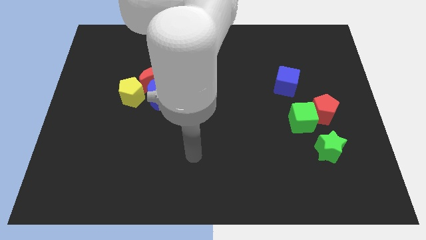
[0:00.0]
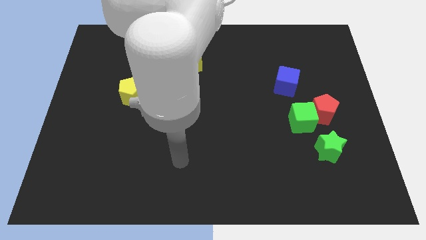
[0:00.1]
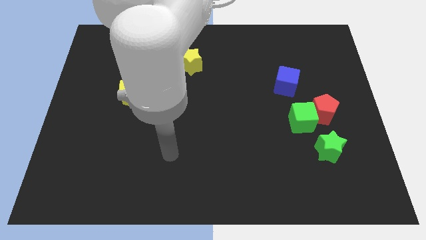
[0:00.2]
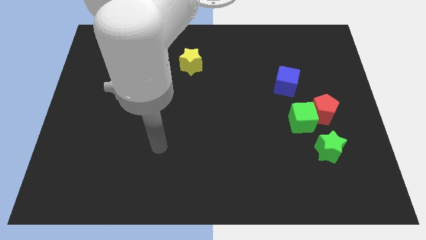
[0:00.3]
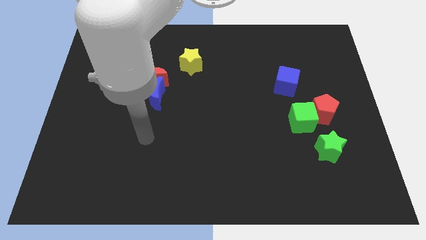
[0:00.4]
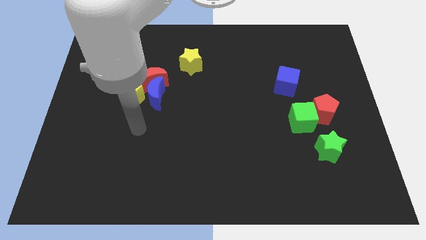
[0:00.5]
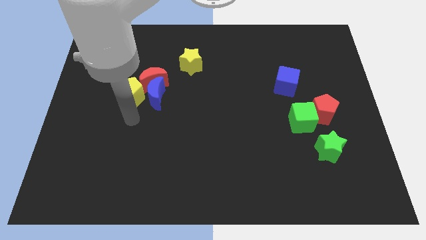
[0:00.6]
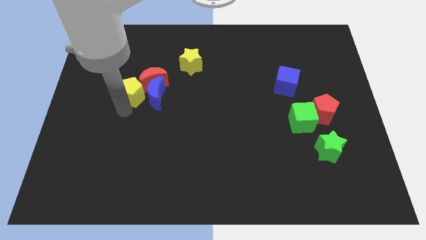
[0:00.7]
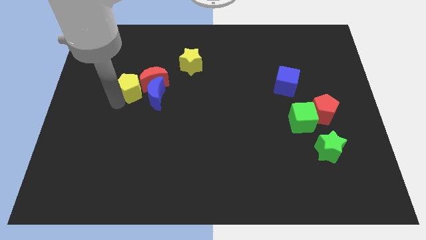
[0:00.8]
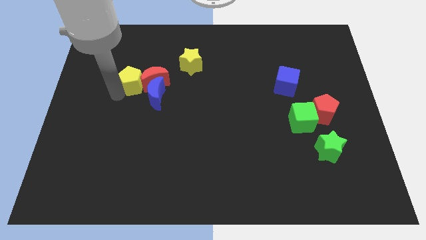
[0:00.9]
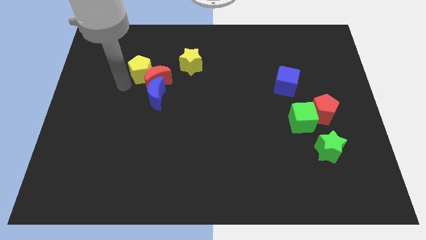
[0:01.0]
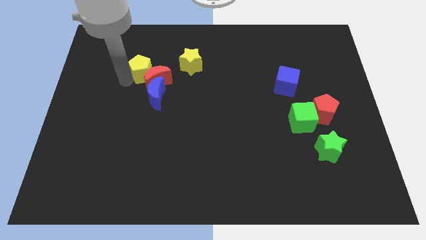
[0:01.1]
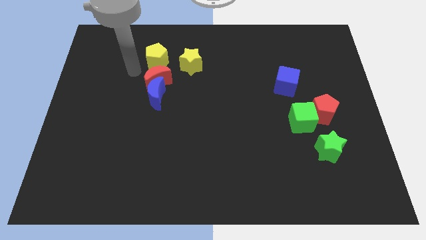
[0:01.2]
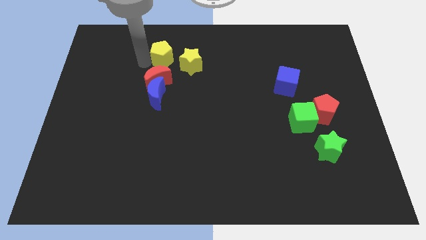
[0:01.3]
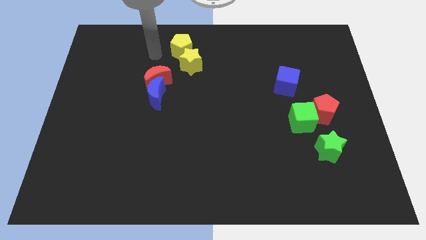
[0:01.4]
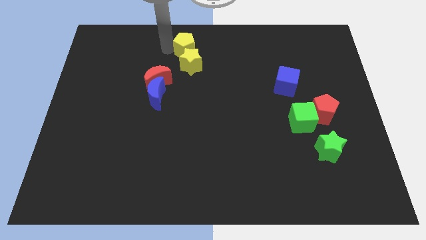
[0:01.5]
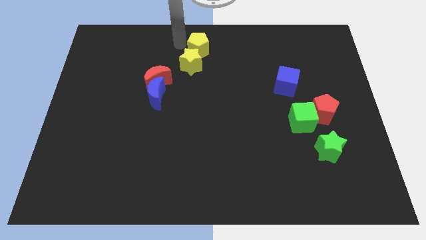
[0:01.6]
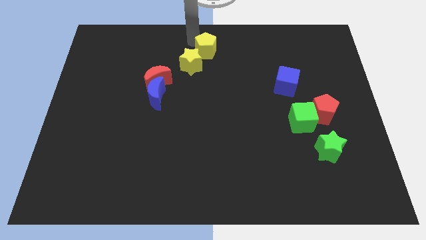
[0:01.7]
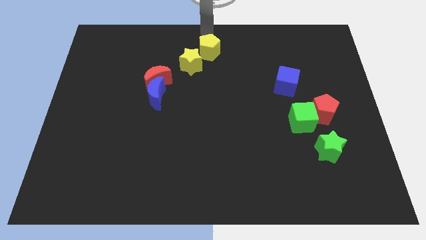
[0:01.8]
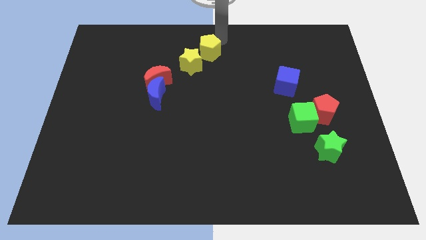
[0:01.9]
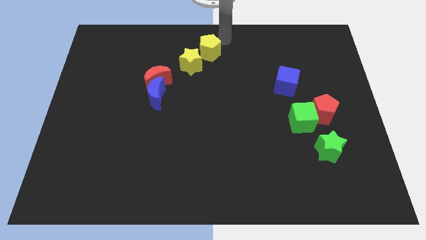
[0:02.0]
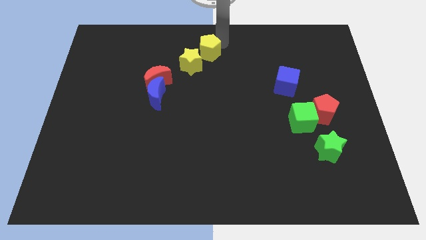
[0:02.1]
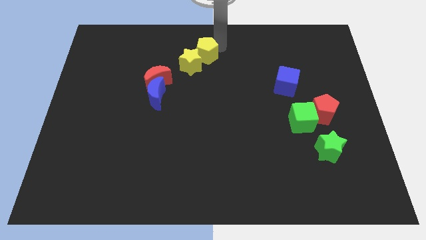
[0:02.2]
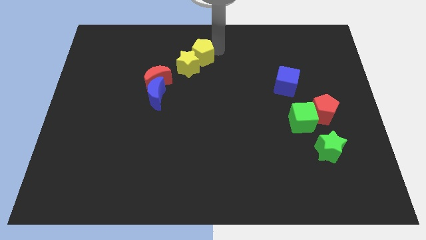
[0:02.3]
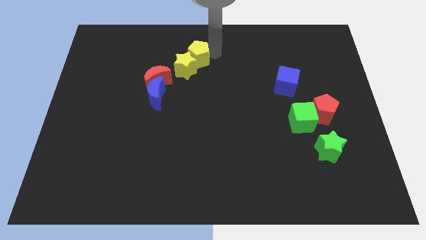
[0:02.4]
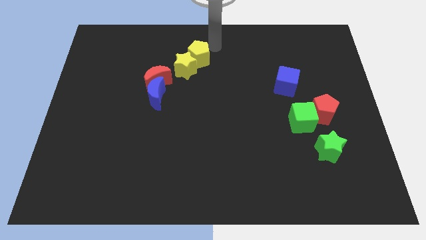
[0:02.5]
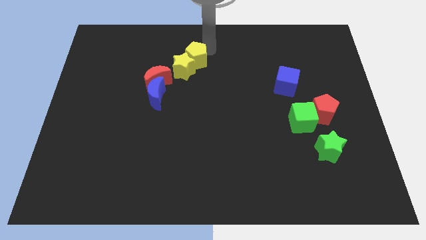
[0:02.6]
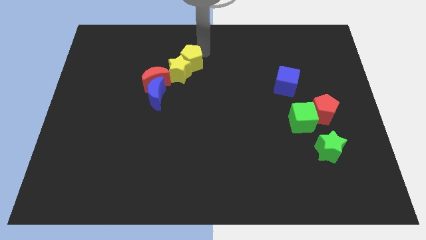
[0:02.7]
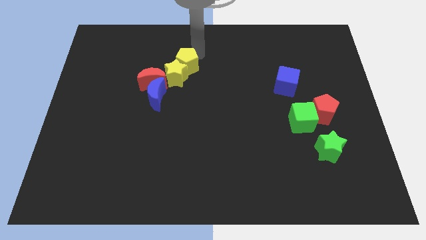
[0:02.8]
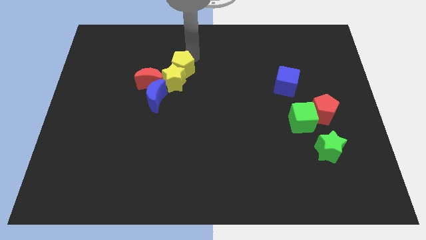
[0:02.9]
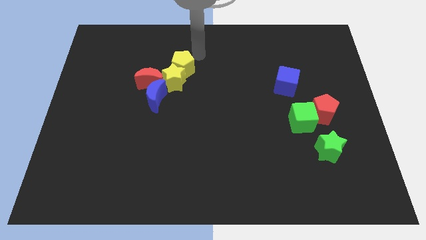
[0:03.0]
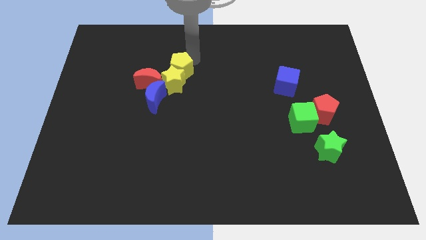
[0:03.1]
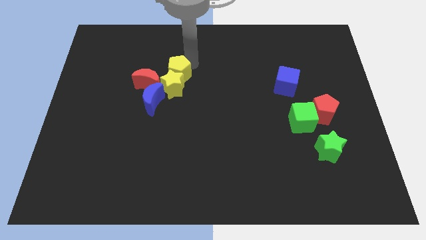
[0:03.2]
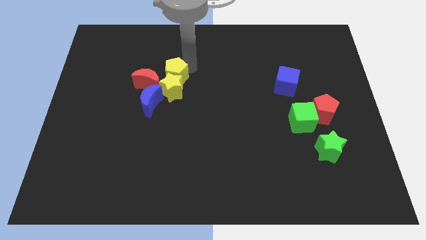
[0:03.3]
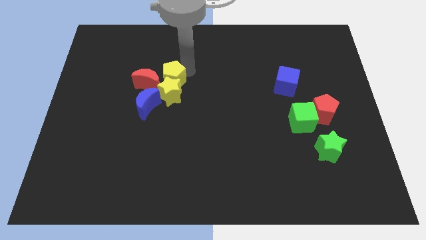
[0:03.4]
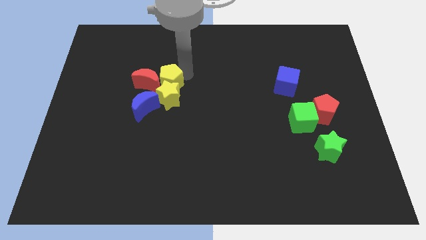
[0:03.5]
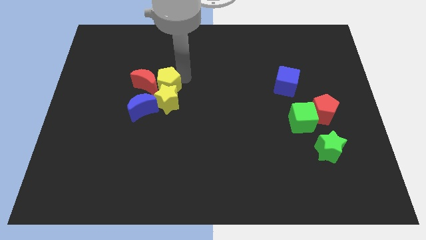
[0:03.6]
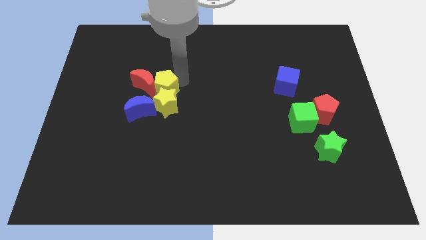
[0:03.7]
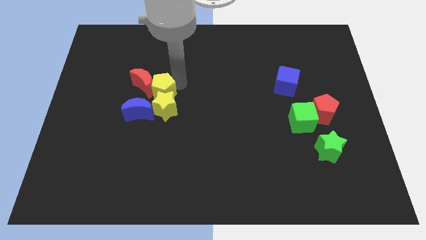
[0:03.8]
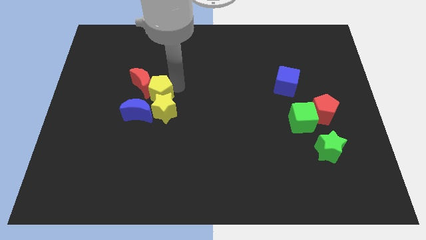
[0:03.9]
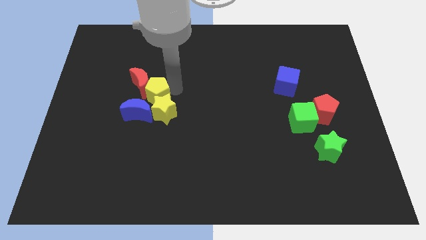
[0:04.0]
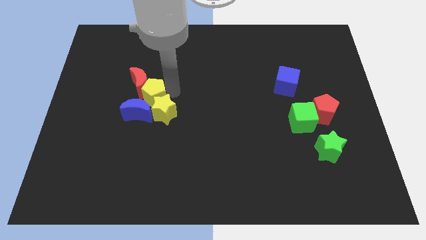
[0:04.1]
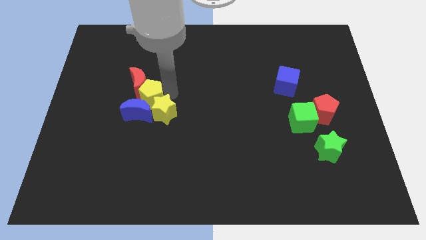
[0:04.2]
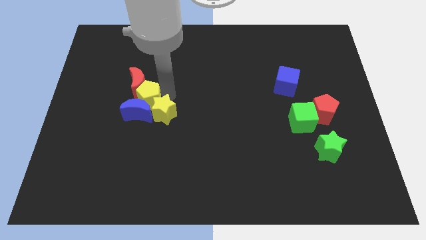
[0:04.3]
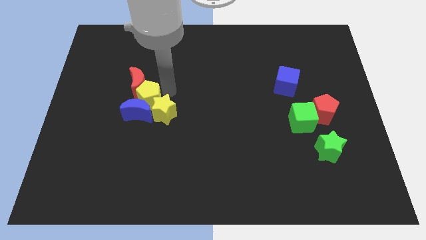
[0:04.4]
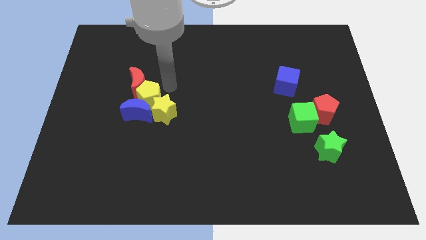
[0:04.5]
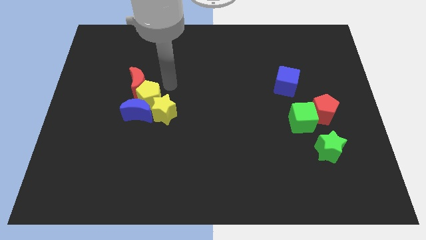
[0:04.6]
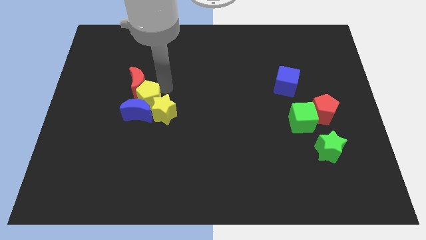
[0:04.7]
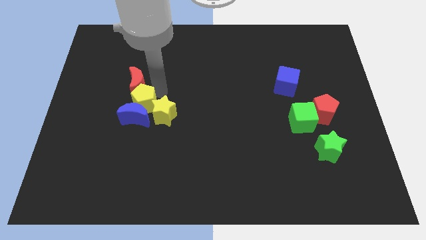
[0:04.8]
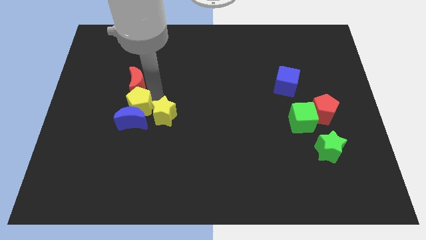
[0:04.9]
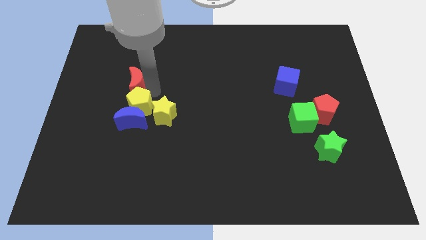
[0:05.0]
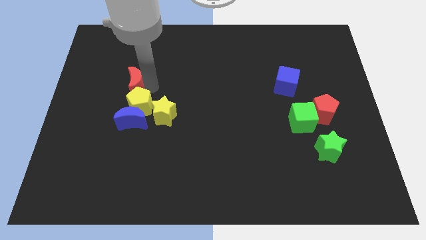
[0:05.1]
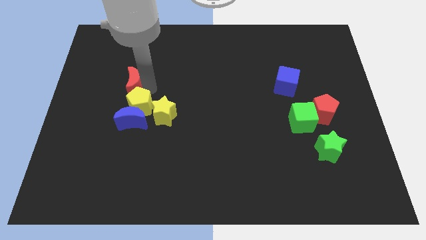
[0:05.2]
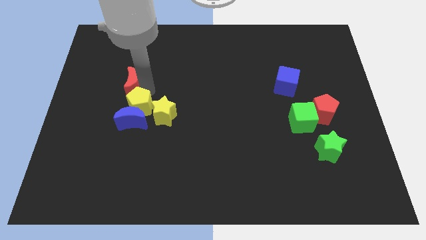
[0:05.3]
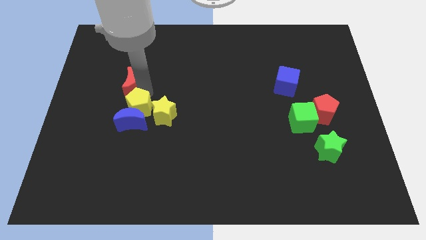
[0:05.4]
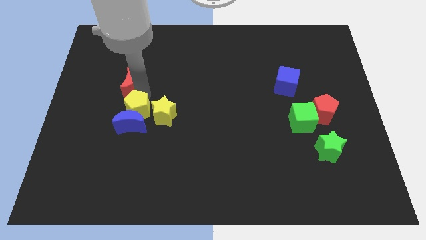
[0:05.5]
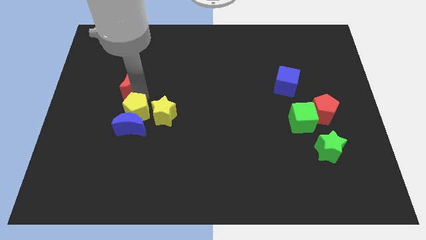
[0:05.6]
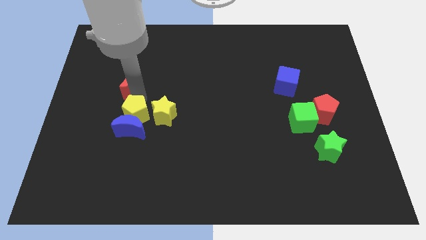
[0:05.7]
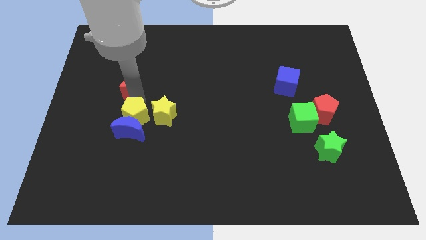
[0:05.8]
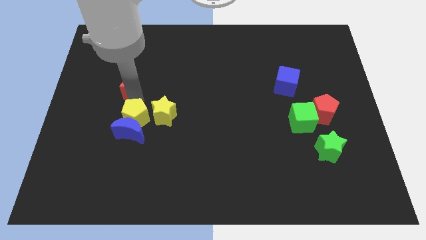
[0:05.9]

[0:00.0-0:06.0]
move the yellow pentagon a little down

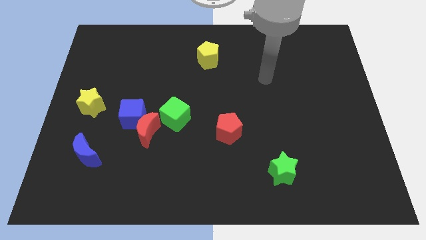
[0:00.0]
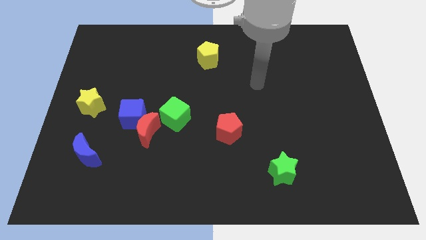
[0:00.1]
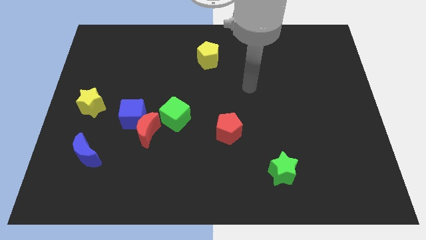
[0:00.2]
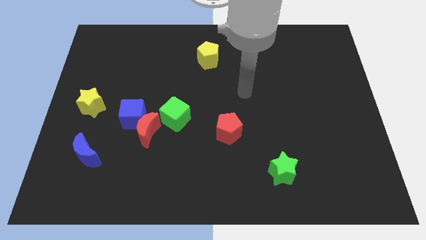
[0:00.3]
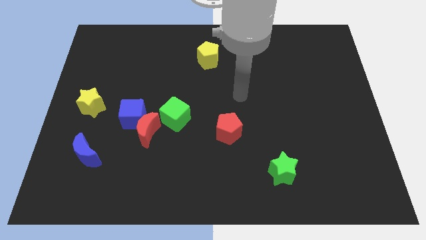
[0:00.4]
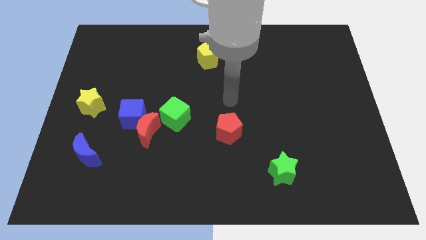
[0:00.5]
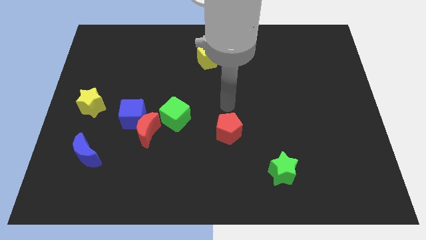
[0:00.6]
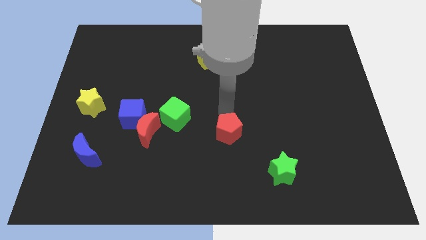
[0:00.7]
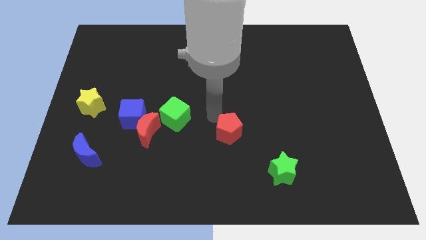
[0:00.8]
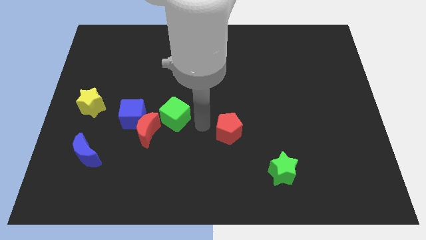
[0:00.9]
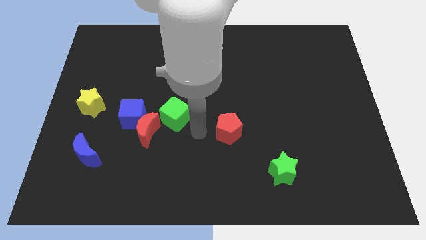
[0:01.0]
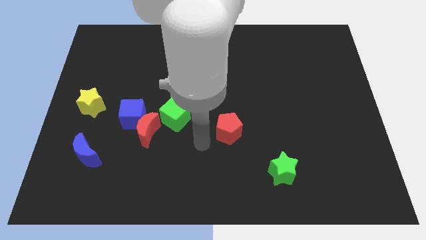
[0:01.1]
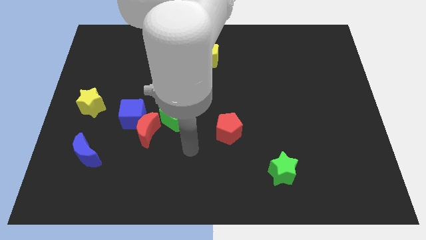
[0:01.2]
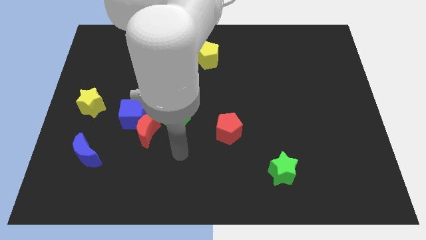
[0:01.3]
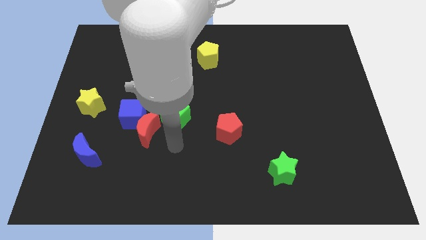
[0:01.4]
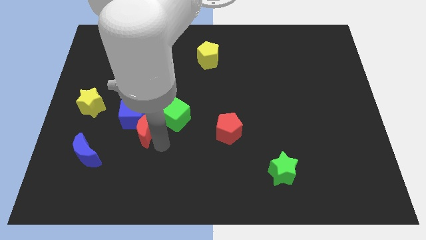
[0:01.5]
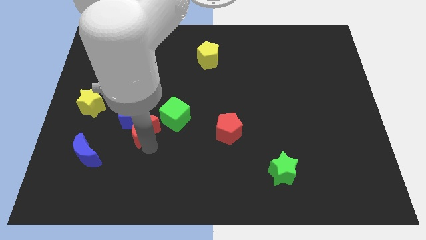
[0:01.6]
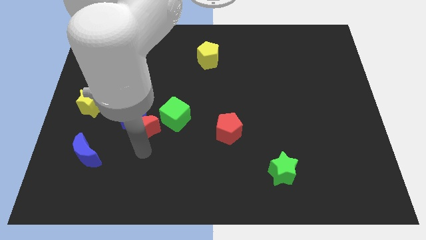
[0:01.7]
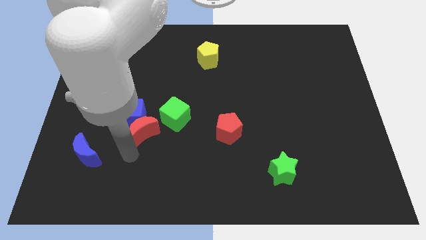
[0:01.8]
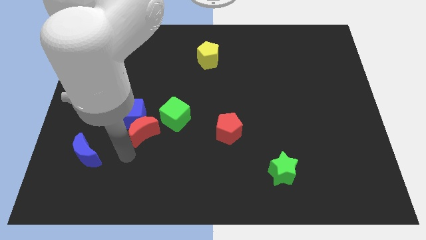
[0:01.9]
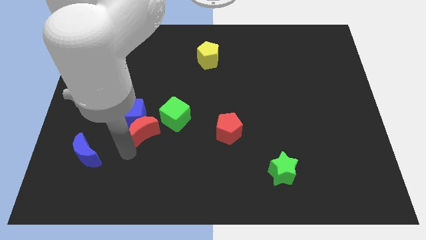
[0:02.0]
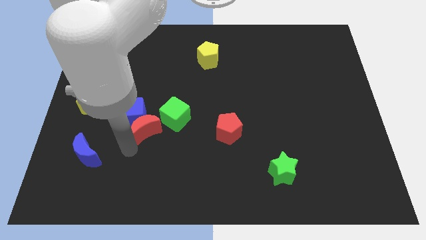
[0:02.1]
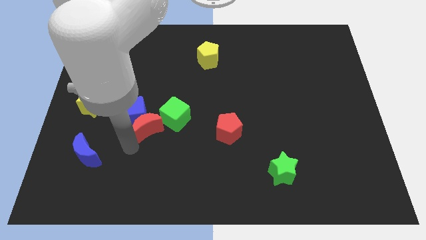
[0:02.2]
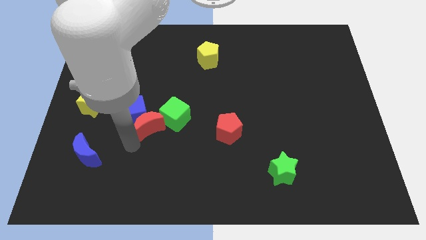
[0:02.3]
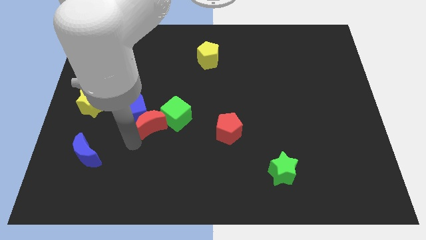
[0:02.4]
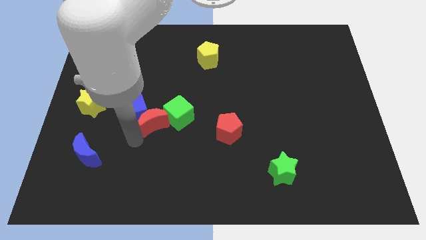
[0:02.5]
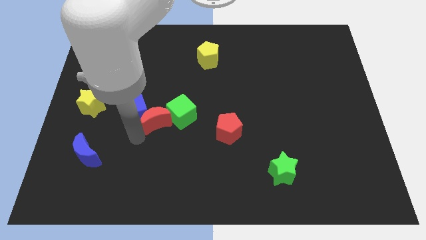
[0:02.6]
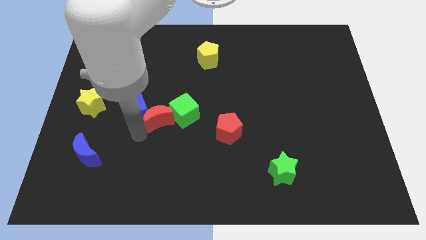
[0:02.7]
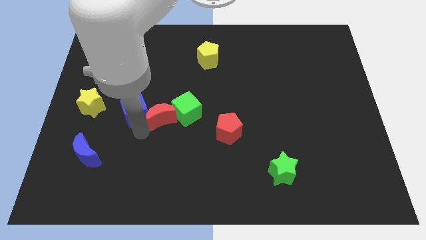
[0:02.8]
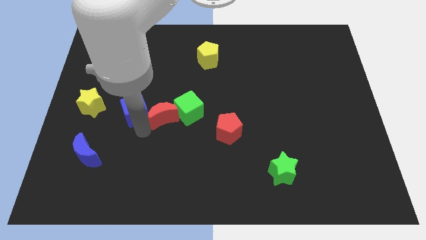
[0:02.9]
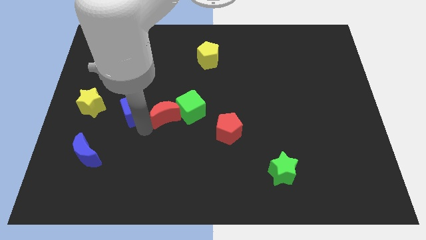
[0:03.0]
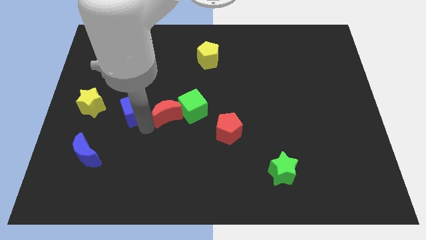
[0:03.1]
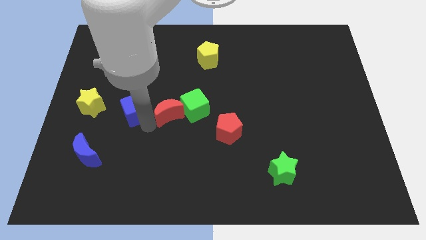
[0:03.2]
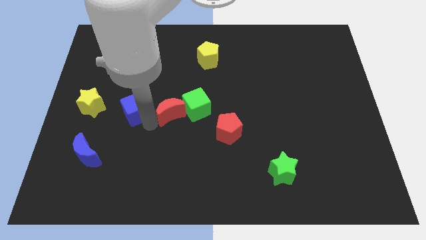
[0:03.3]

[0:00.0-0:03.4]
push the red moon a little bit up and then to the right
